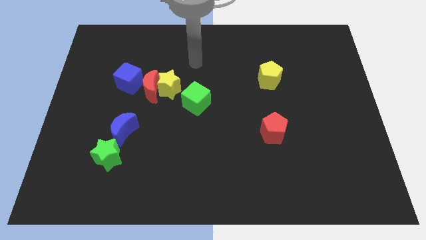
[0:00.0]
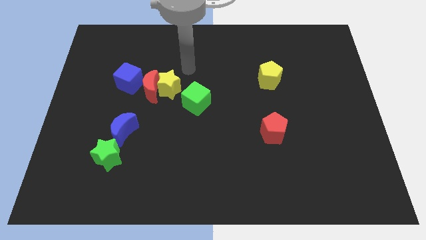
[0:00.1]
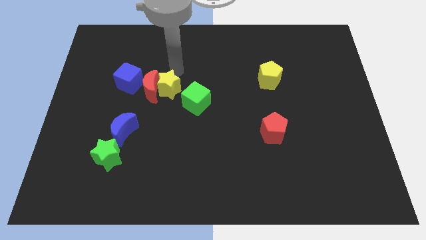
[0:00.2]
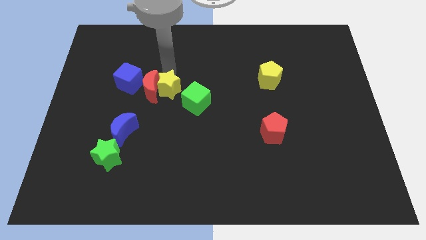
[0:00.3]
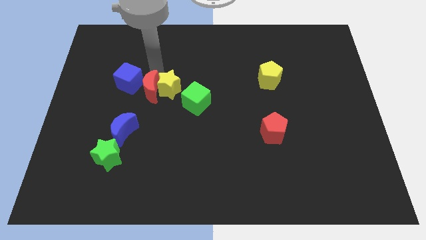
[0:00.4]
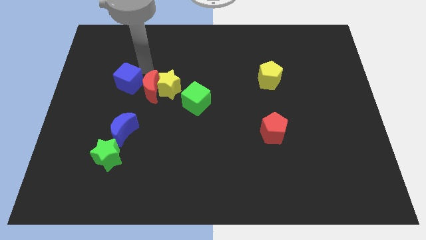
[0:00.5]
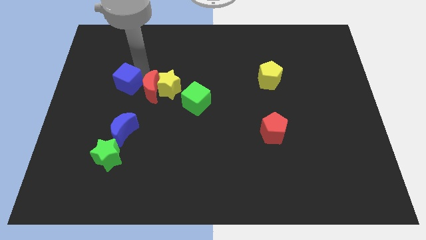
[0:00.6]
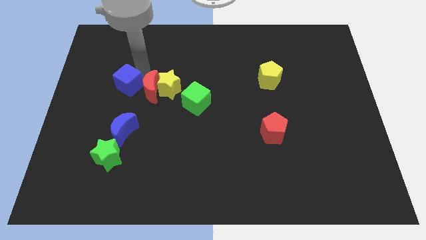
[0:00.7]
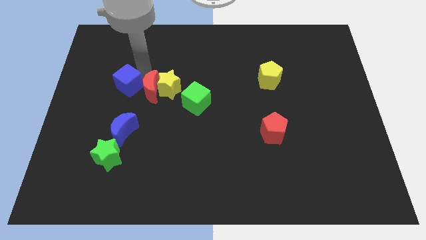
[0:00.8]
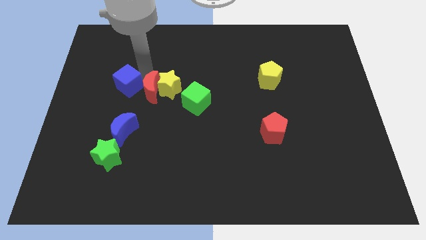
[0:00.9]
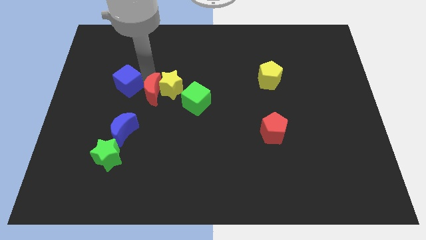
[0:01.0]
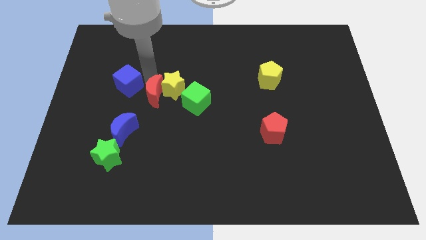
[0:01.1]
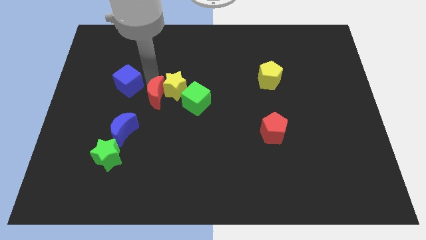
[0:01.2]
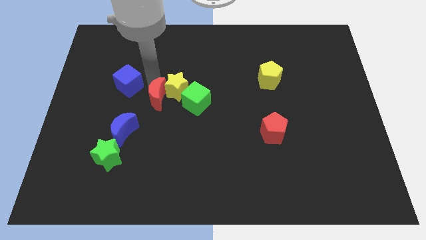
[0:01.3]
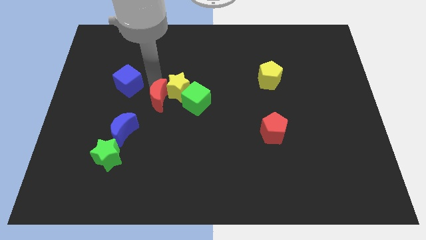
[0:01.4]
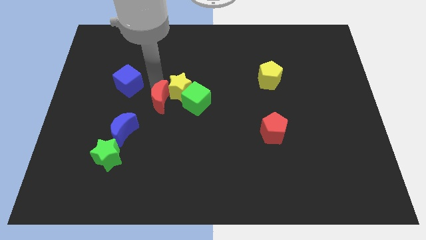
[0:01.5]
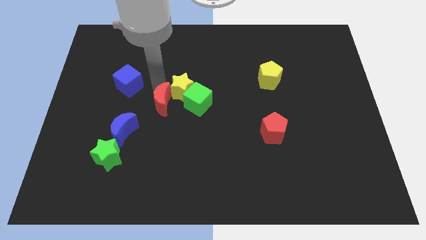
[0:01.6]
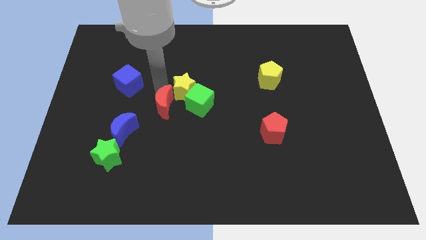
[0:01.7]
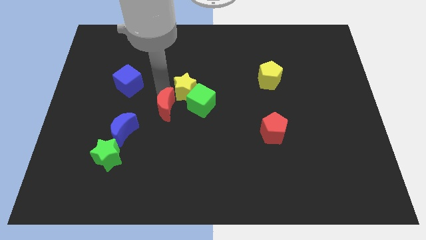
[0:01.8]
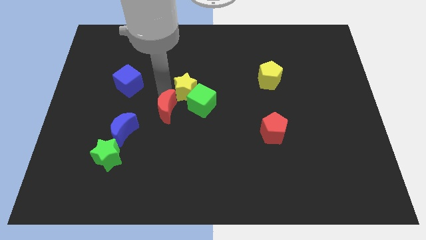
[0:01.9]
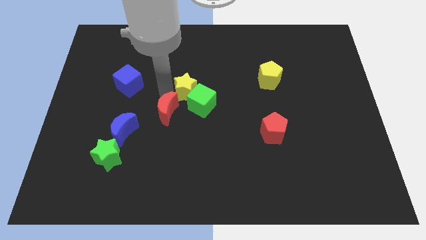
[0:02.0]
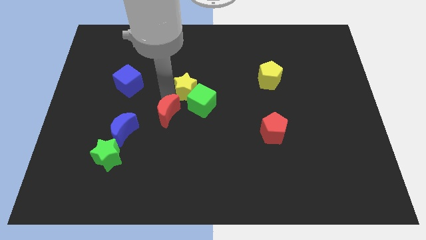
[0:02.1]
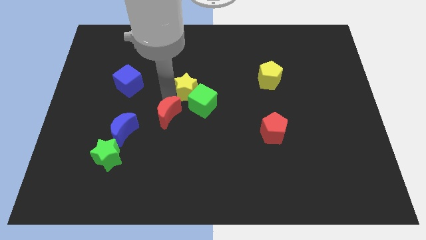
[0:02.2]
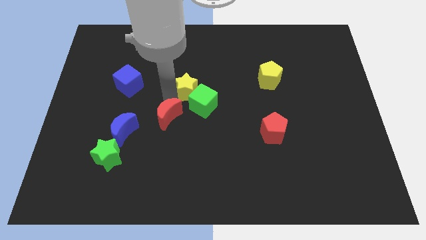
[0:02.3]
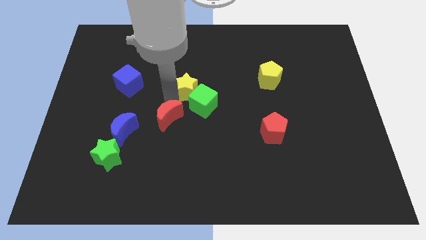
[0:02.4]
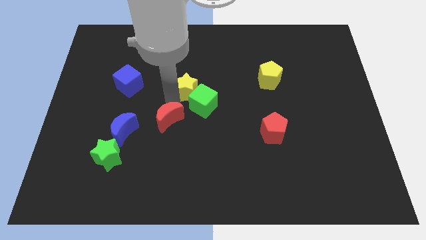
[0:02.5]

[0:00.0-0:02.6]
separate the red moon from the yellow star and blue cube

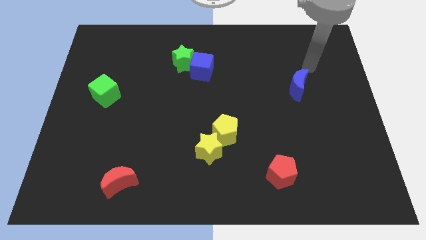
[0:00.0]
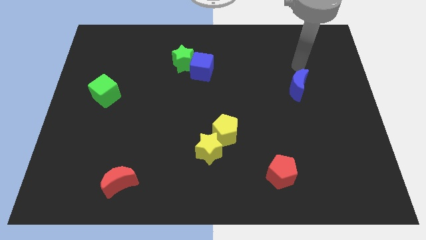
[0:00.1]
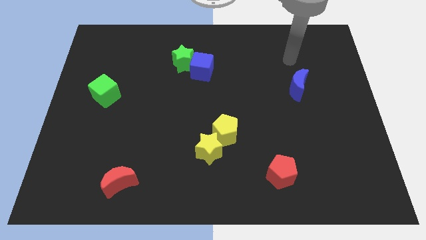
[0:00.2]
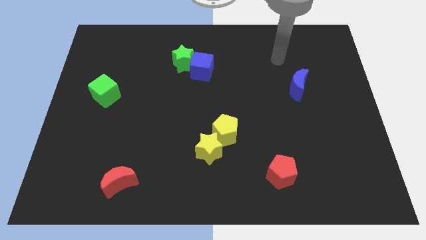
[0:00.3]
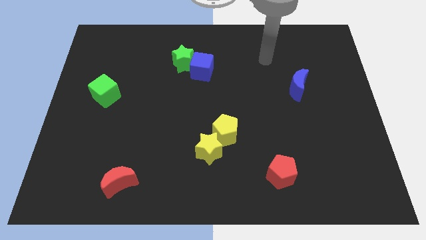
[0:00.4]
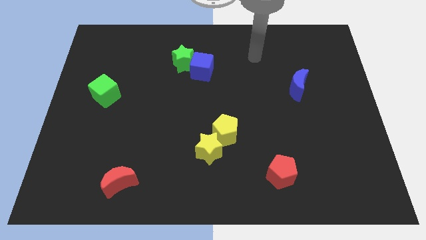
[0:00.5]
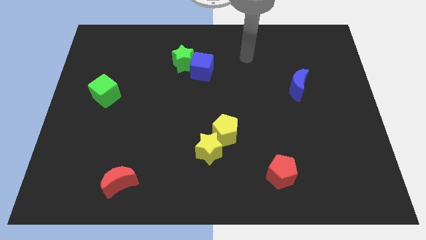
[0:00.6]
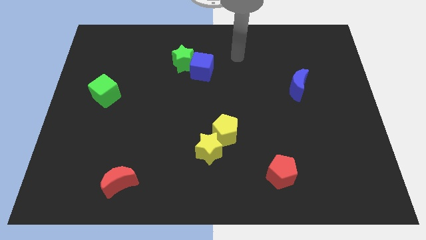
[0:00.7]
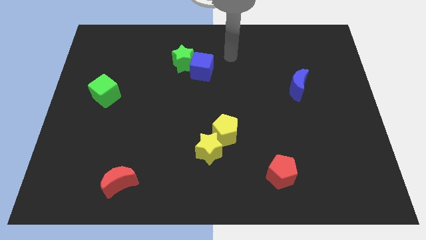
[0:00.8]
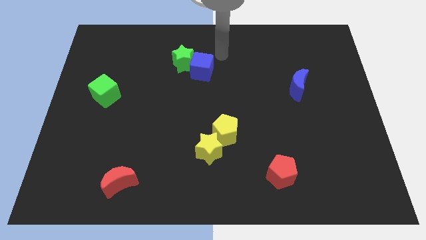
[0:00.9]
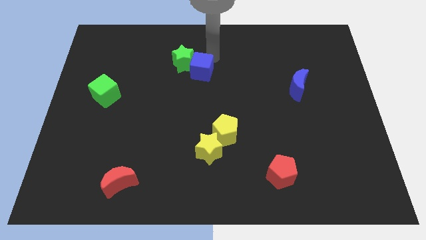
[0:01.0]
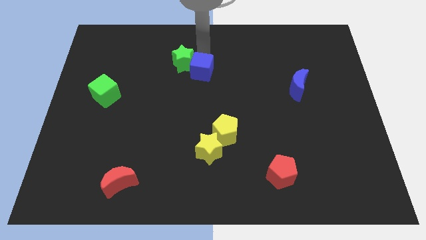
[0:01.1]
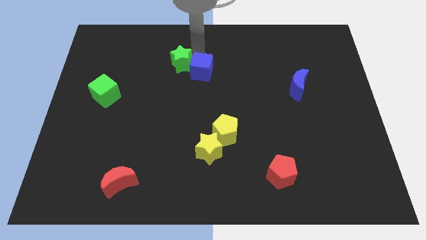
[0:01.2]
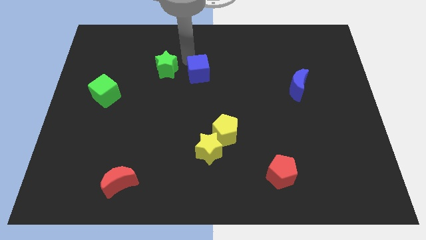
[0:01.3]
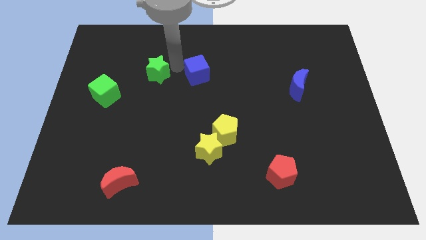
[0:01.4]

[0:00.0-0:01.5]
pull the blue cube apart from the green star

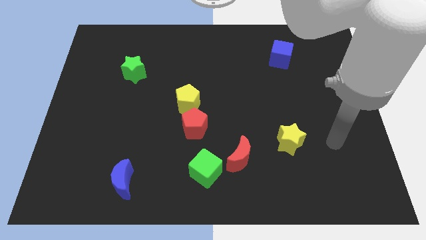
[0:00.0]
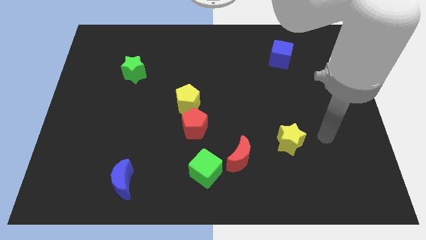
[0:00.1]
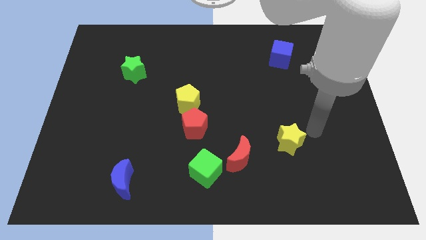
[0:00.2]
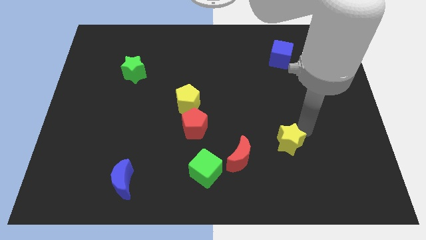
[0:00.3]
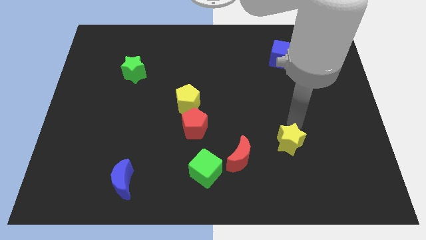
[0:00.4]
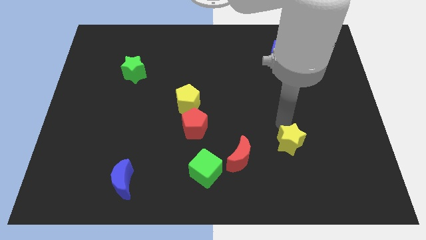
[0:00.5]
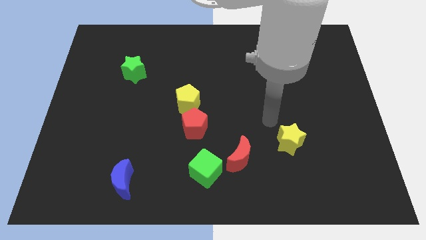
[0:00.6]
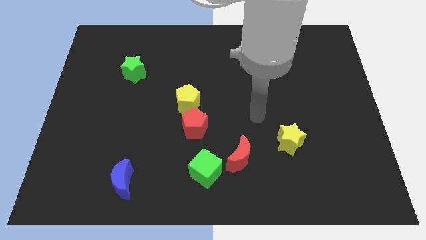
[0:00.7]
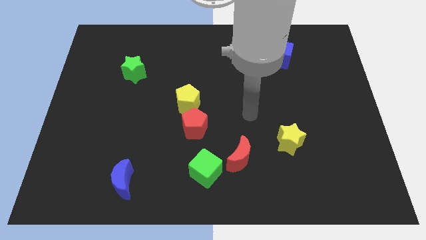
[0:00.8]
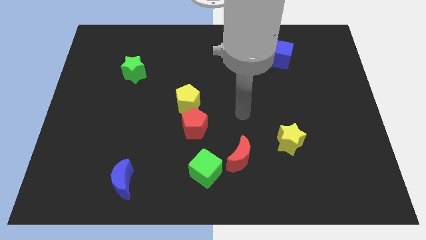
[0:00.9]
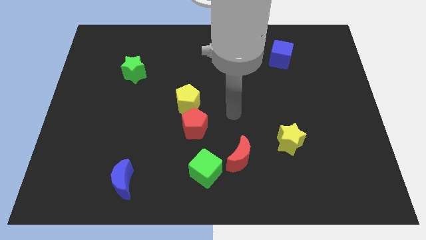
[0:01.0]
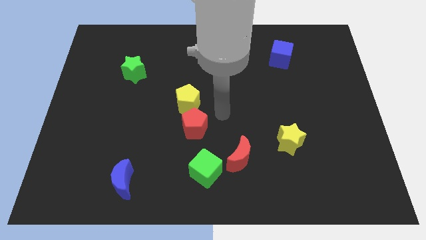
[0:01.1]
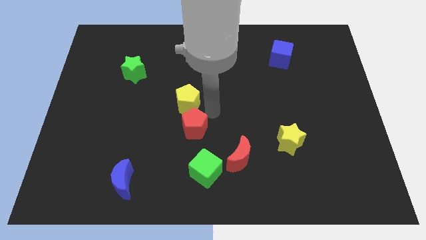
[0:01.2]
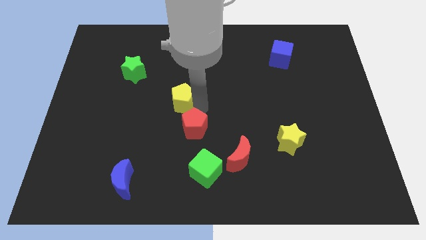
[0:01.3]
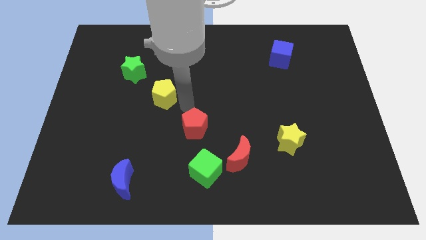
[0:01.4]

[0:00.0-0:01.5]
separate the red pentagon from the yellow pentagon

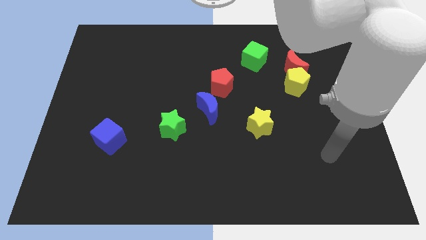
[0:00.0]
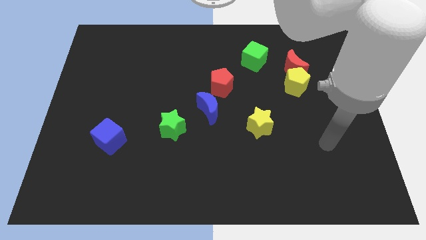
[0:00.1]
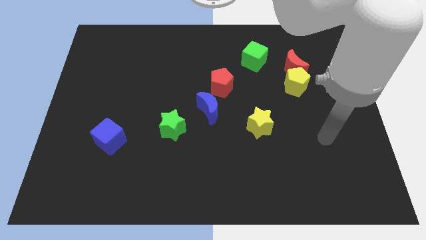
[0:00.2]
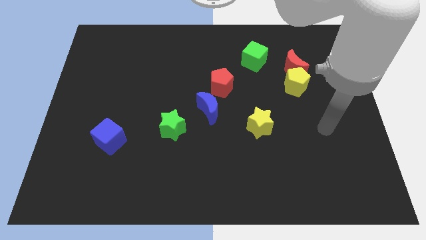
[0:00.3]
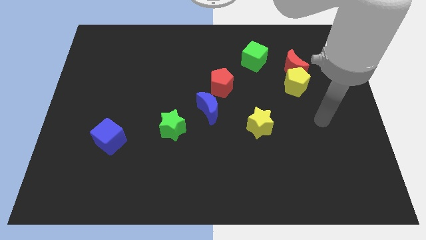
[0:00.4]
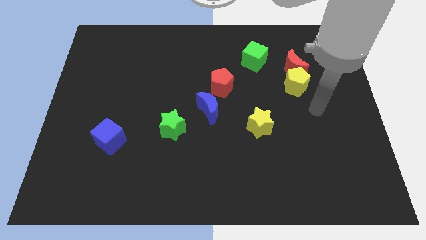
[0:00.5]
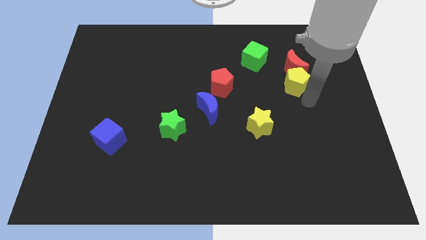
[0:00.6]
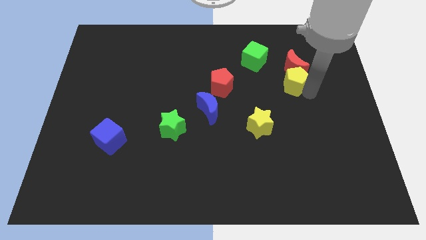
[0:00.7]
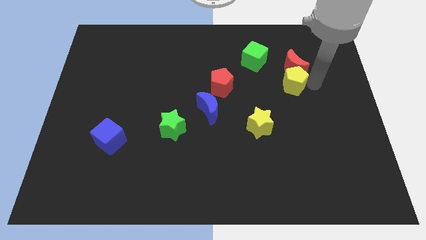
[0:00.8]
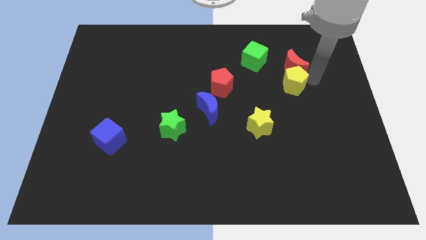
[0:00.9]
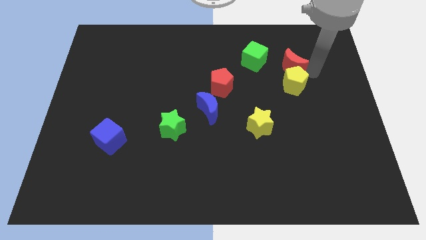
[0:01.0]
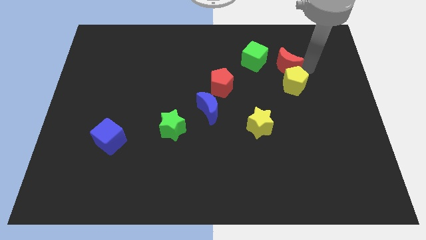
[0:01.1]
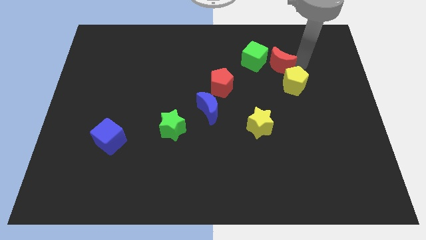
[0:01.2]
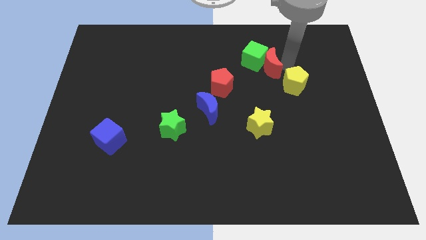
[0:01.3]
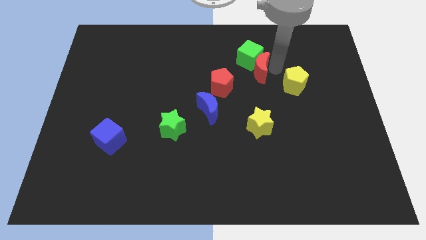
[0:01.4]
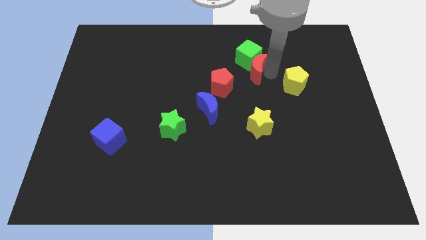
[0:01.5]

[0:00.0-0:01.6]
separate the yellow pentagon from the red moon

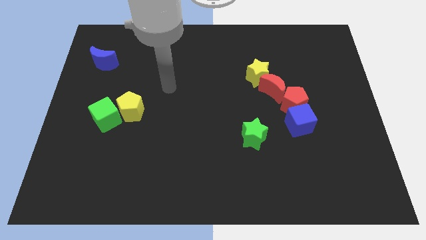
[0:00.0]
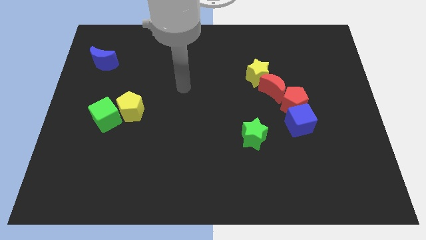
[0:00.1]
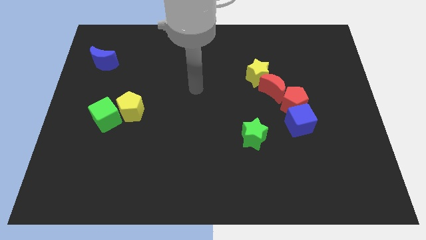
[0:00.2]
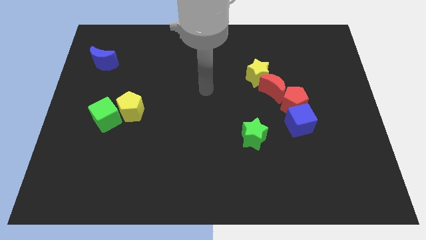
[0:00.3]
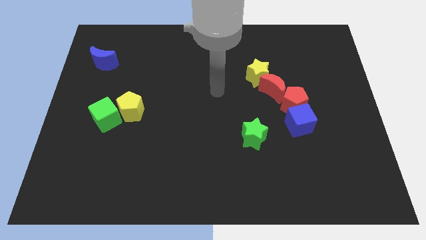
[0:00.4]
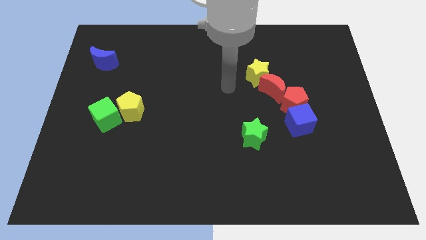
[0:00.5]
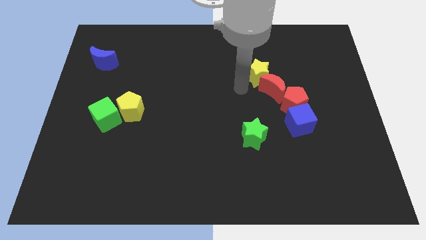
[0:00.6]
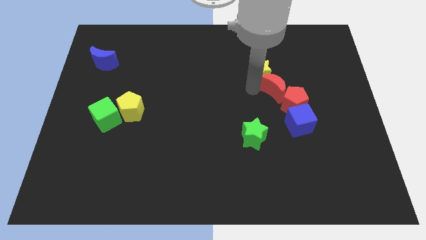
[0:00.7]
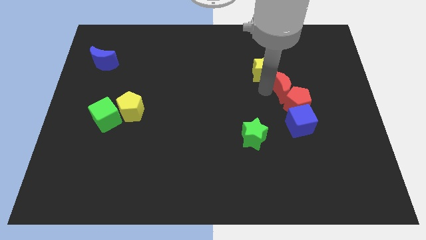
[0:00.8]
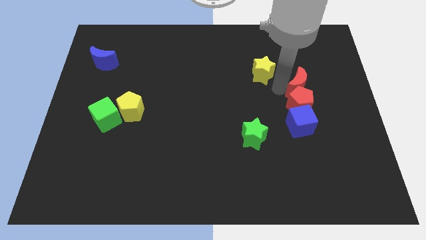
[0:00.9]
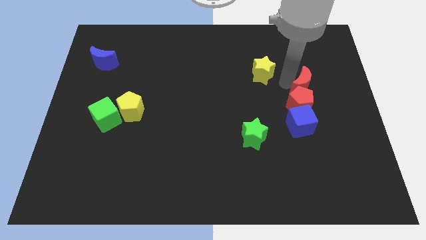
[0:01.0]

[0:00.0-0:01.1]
move the yellow star away from the red moon

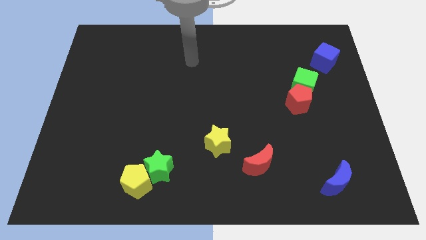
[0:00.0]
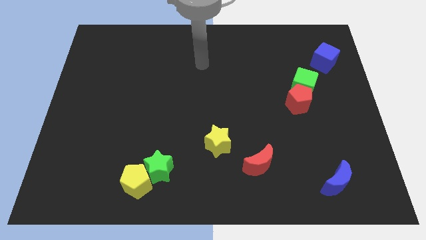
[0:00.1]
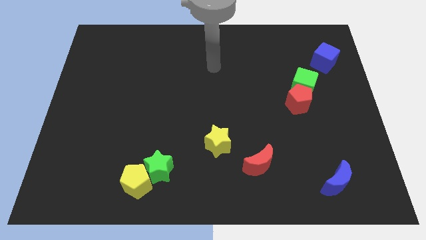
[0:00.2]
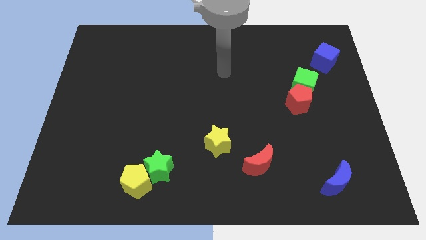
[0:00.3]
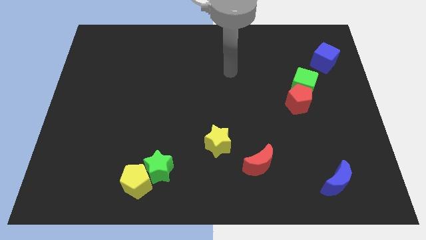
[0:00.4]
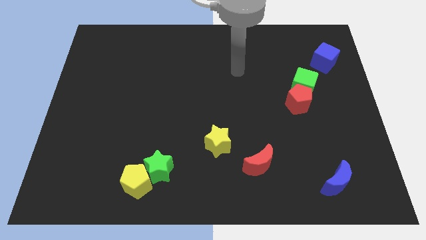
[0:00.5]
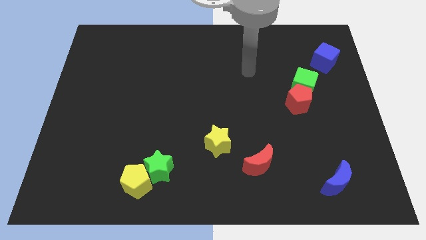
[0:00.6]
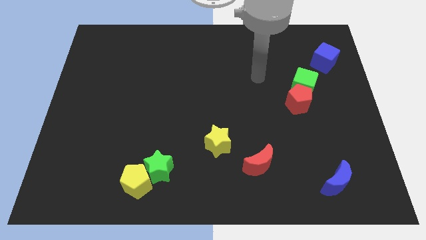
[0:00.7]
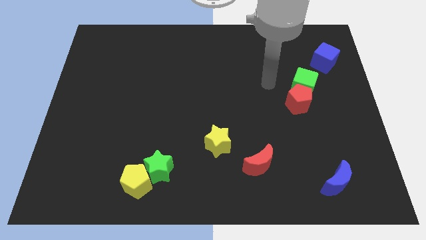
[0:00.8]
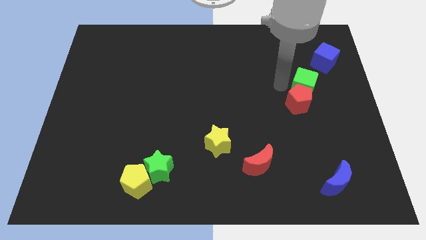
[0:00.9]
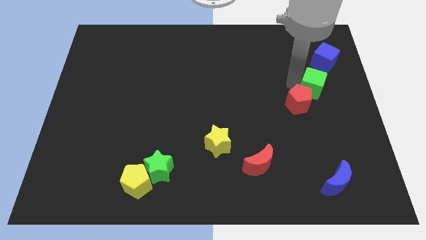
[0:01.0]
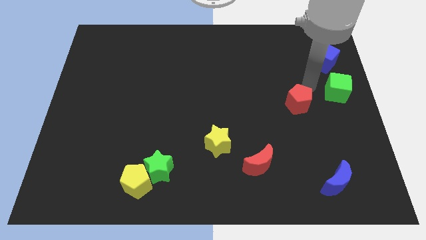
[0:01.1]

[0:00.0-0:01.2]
pull the red pentagon apart from the green cube
